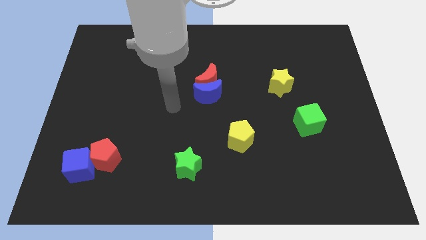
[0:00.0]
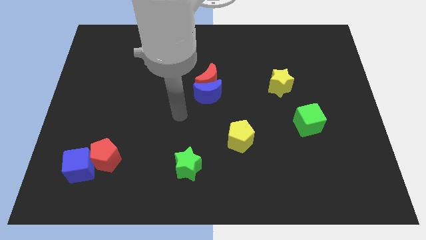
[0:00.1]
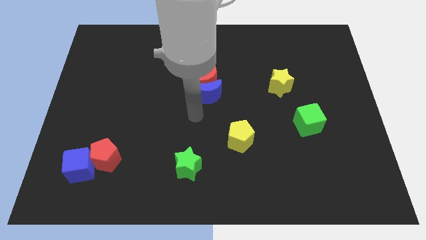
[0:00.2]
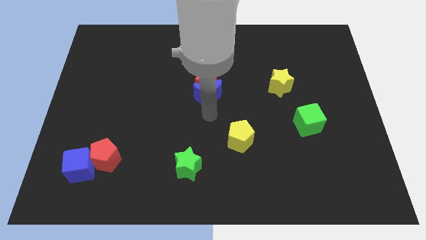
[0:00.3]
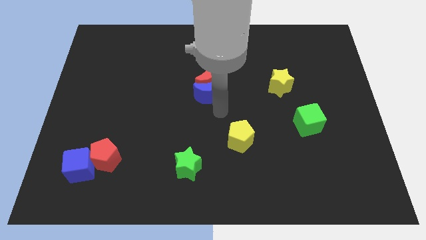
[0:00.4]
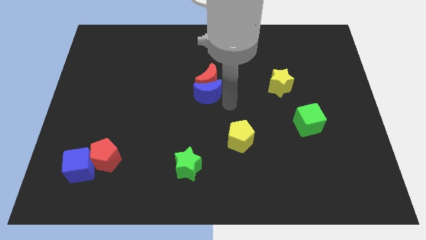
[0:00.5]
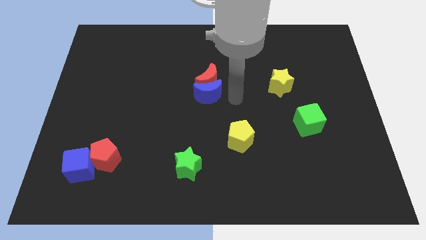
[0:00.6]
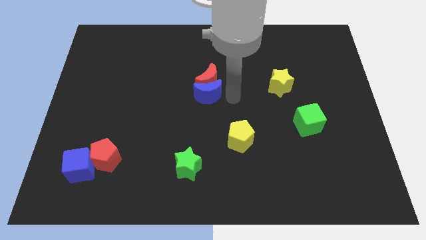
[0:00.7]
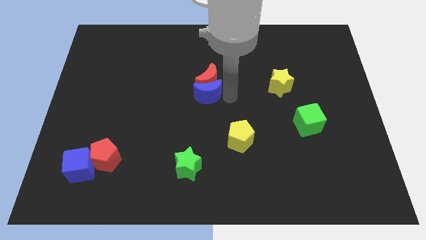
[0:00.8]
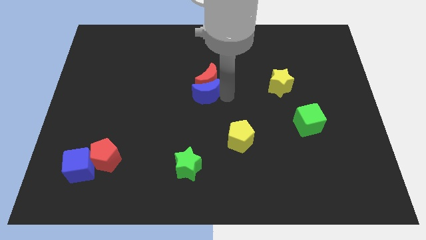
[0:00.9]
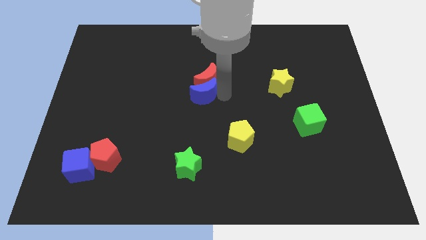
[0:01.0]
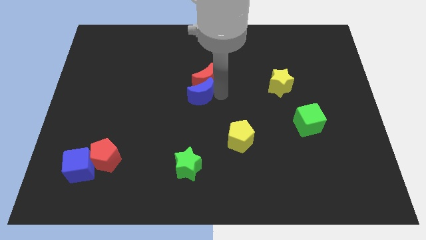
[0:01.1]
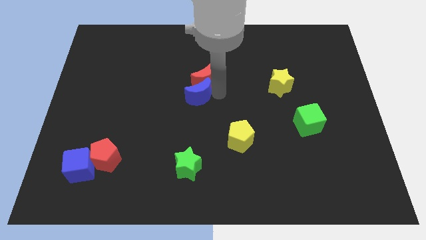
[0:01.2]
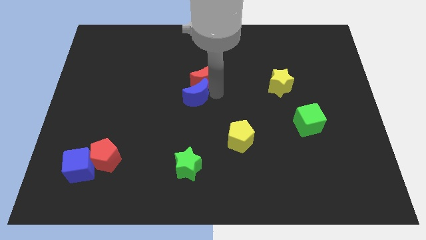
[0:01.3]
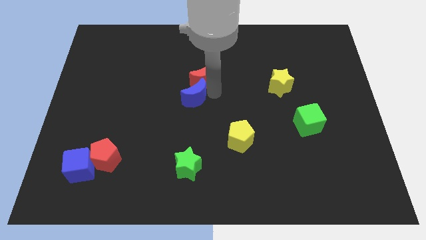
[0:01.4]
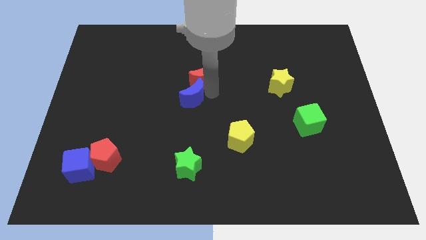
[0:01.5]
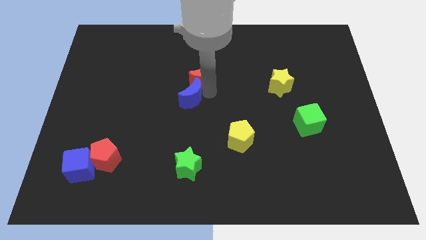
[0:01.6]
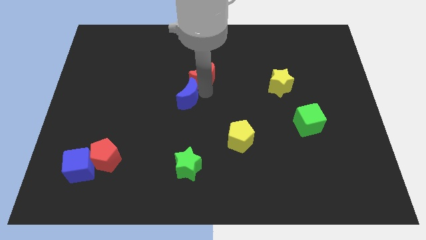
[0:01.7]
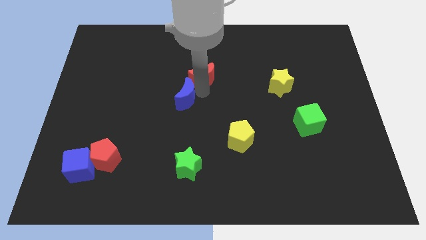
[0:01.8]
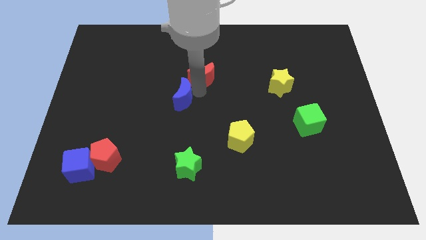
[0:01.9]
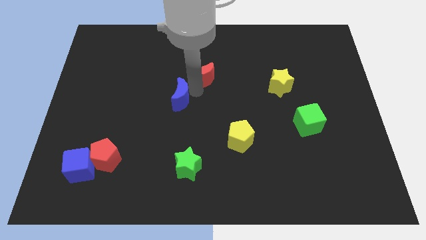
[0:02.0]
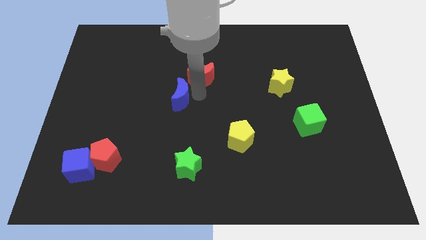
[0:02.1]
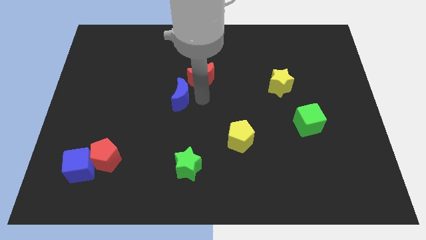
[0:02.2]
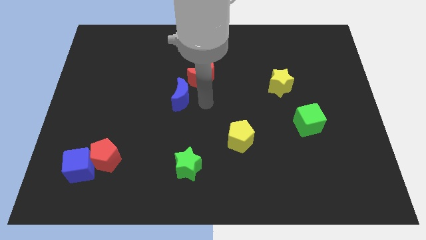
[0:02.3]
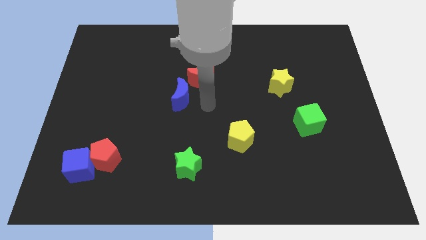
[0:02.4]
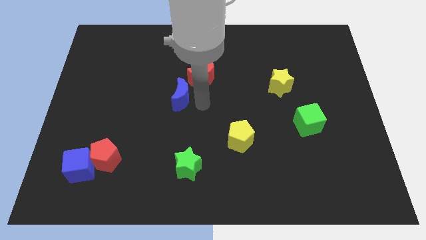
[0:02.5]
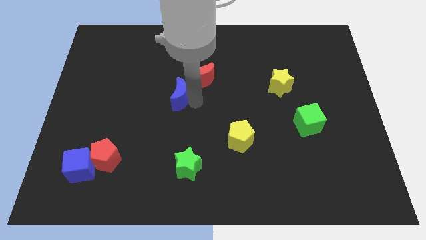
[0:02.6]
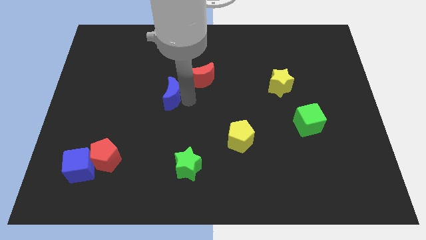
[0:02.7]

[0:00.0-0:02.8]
push the blue moon left a little

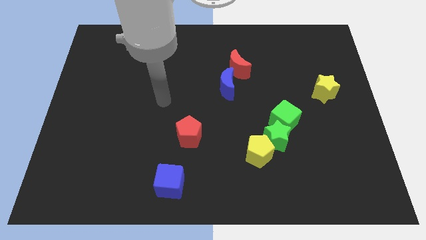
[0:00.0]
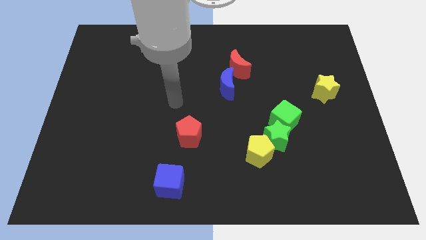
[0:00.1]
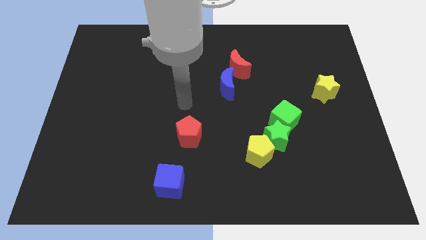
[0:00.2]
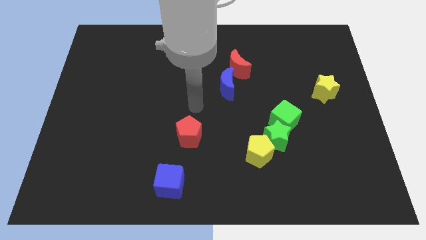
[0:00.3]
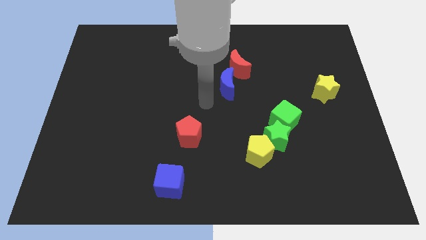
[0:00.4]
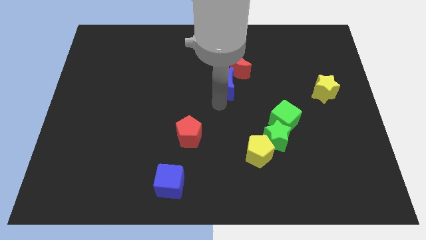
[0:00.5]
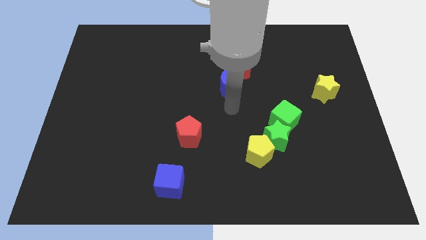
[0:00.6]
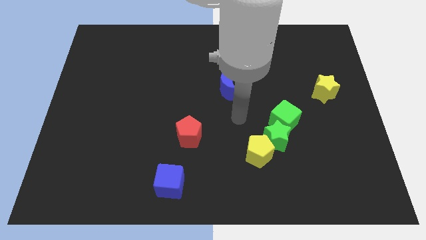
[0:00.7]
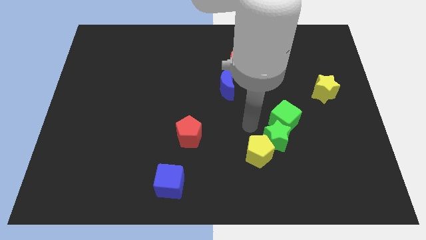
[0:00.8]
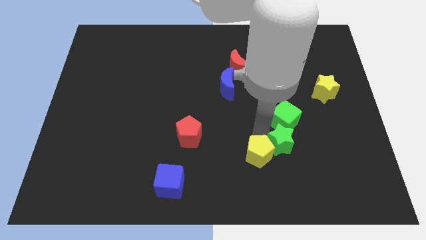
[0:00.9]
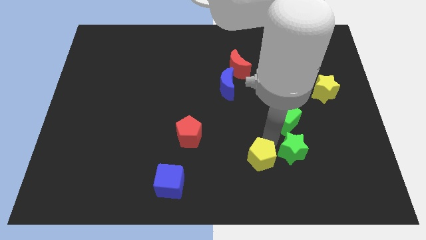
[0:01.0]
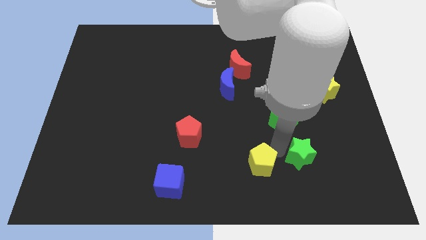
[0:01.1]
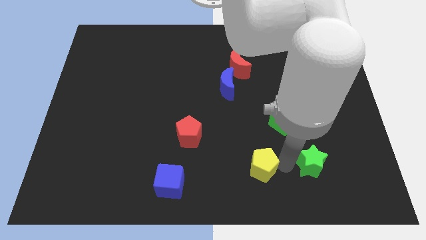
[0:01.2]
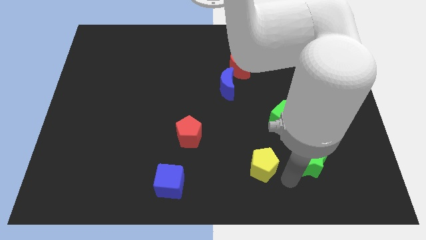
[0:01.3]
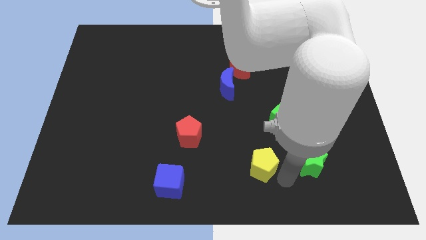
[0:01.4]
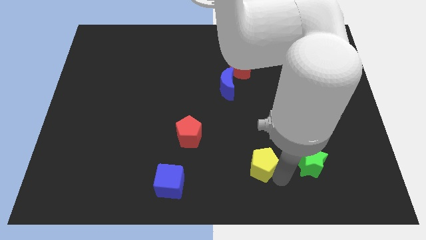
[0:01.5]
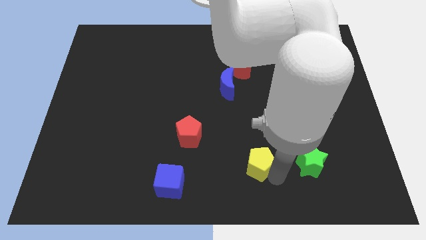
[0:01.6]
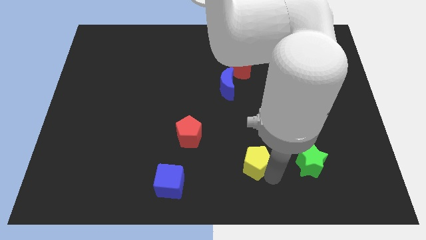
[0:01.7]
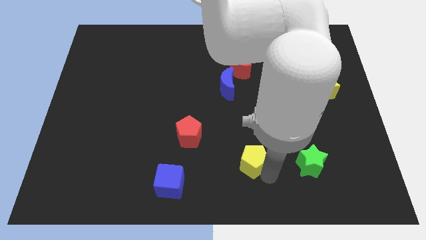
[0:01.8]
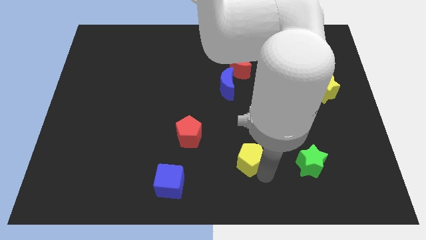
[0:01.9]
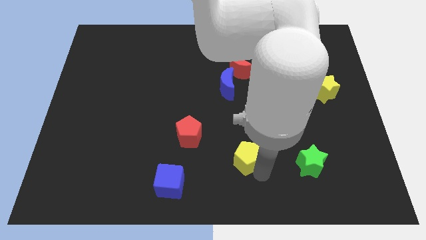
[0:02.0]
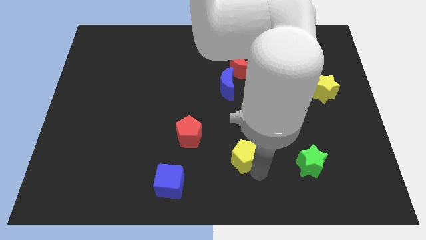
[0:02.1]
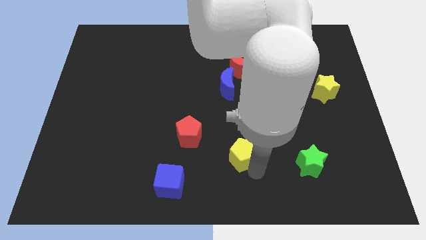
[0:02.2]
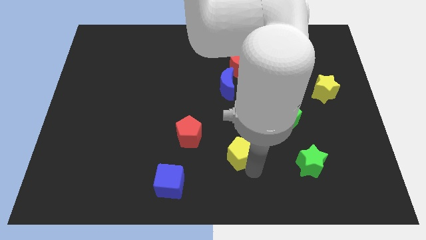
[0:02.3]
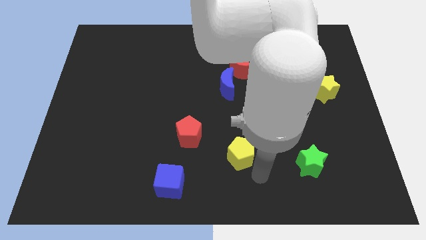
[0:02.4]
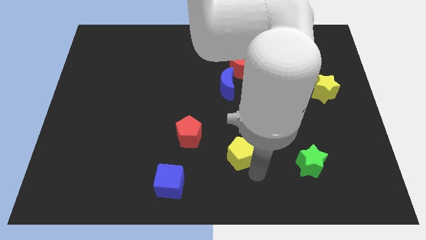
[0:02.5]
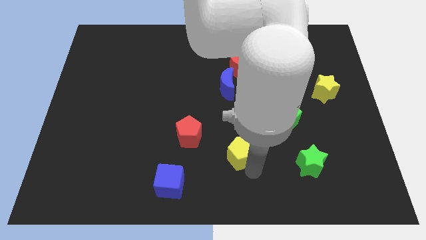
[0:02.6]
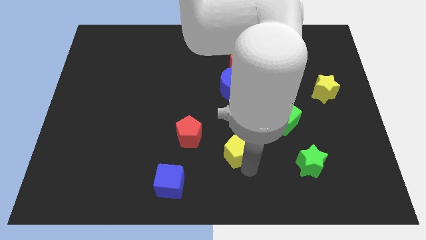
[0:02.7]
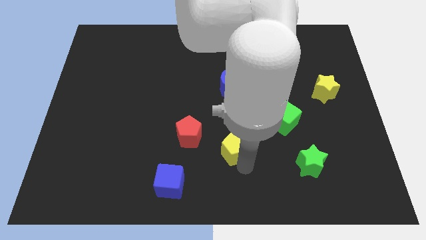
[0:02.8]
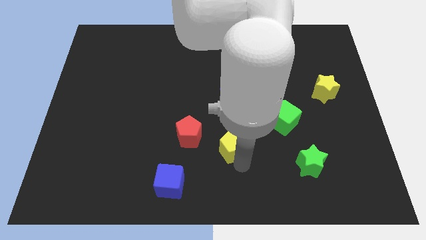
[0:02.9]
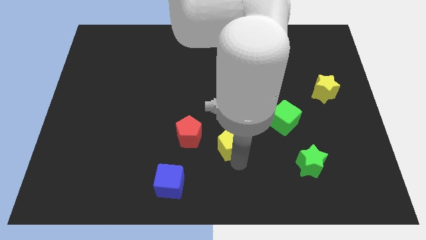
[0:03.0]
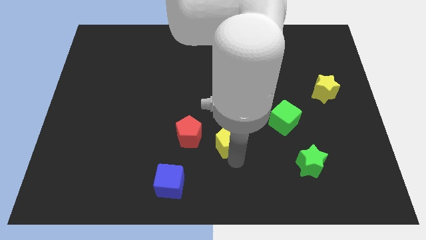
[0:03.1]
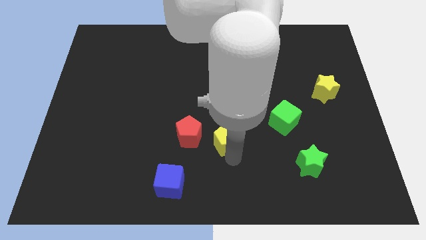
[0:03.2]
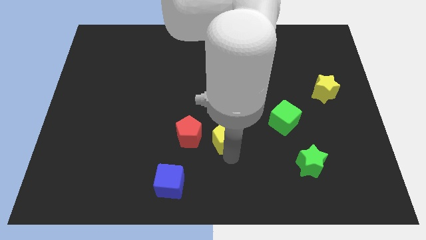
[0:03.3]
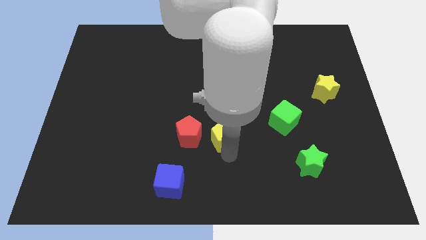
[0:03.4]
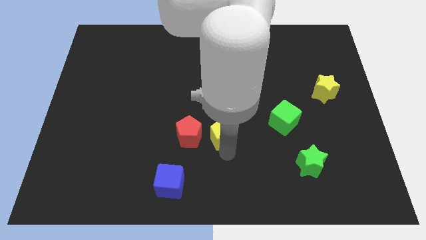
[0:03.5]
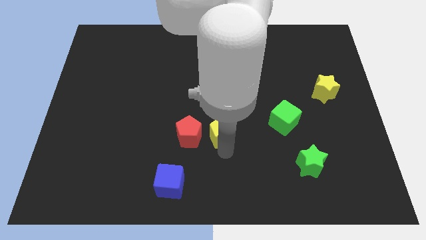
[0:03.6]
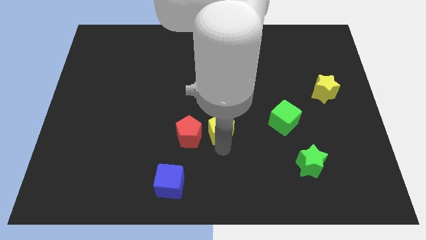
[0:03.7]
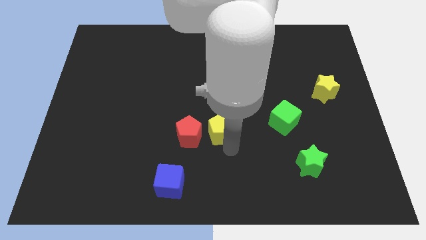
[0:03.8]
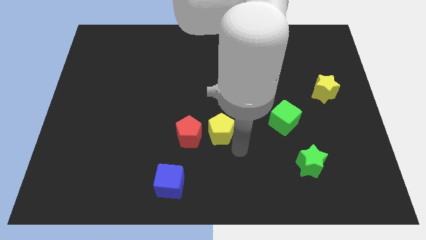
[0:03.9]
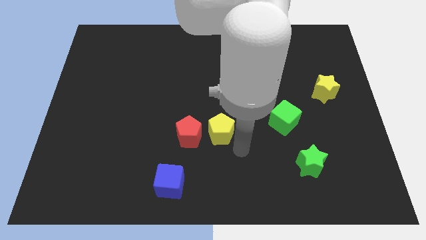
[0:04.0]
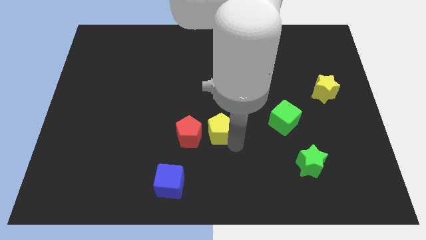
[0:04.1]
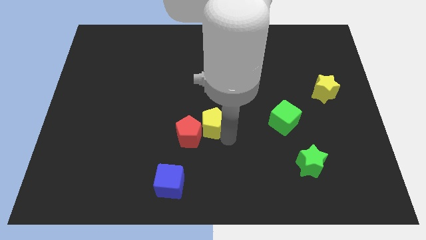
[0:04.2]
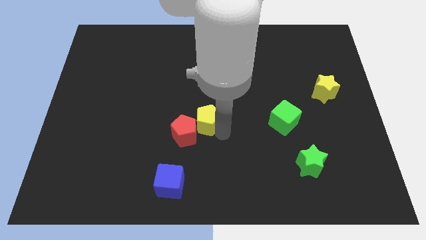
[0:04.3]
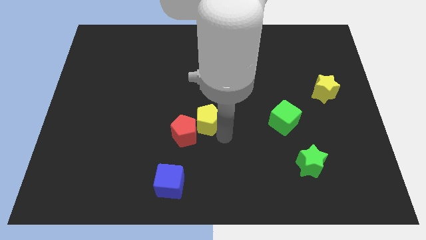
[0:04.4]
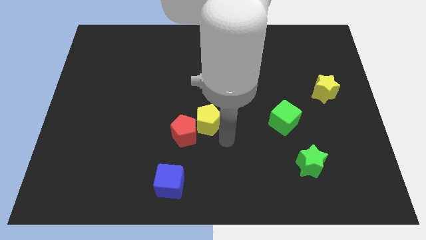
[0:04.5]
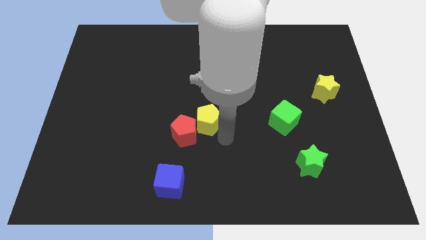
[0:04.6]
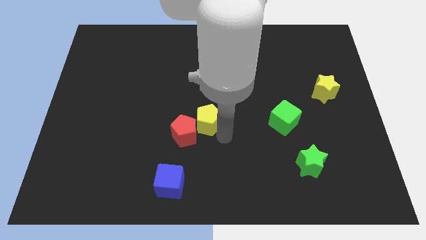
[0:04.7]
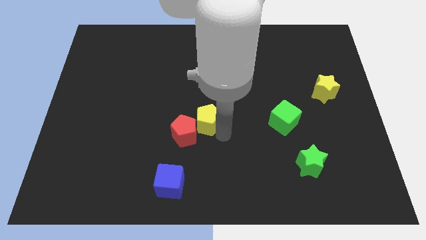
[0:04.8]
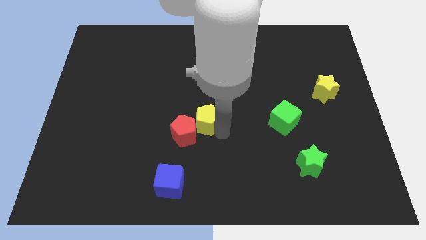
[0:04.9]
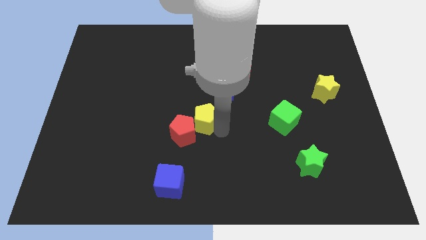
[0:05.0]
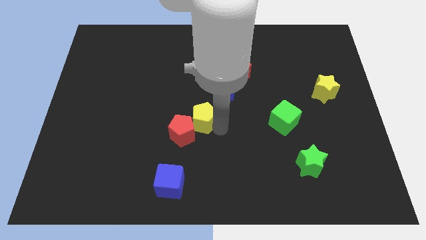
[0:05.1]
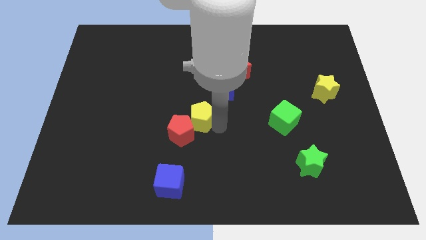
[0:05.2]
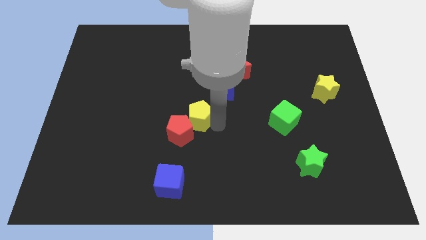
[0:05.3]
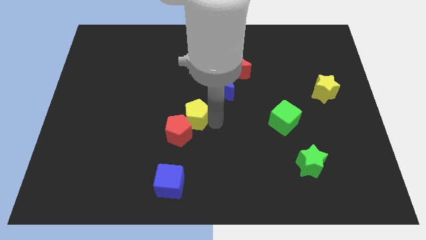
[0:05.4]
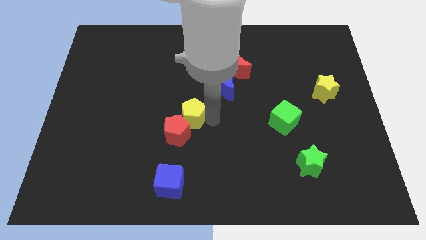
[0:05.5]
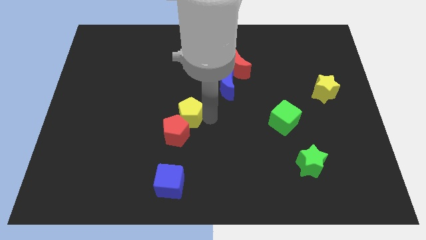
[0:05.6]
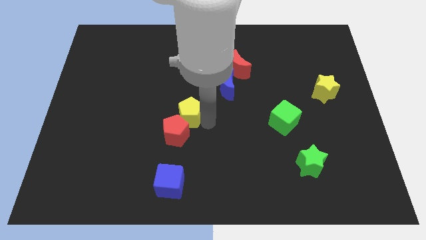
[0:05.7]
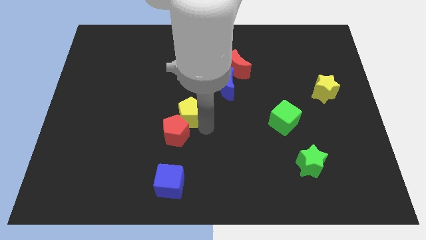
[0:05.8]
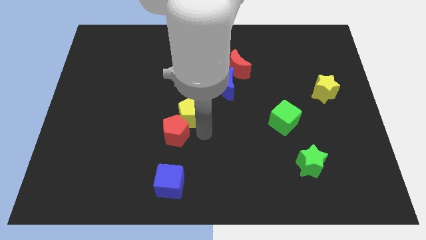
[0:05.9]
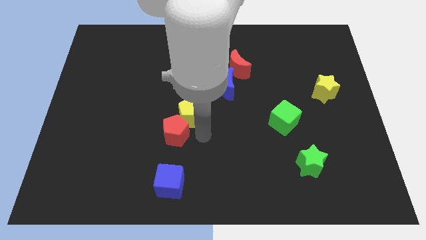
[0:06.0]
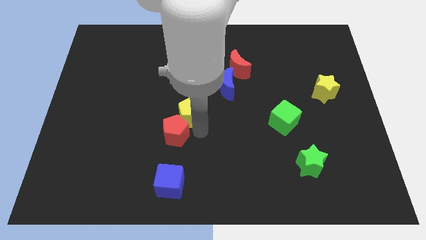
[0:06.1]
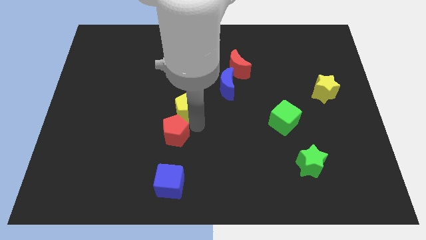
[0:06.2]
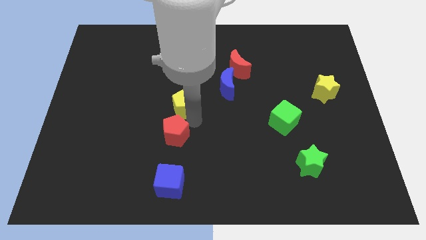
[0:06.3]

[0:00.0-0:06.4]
push the yellow pentagon up and left diagonally
